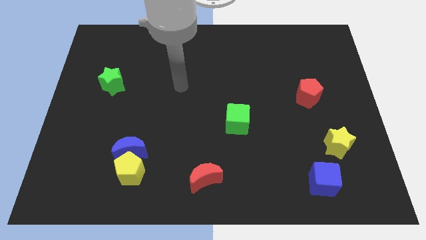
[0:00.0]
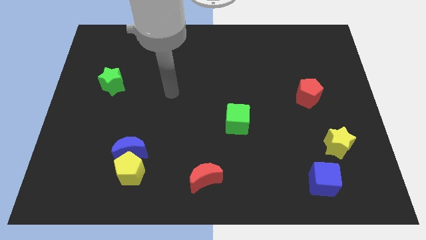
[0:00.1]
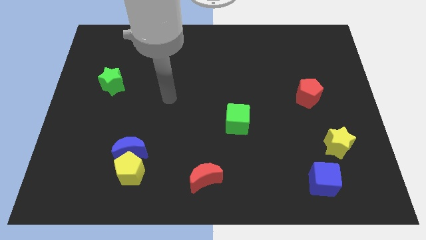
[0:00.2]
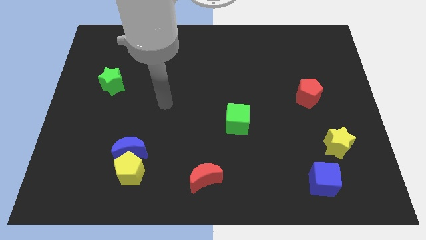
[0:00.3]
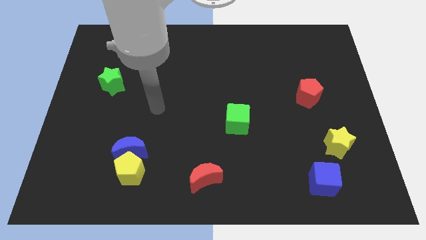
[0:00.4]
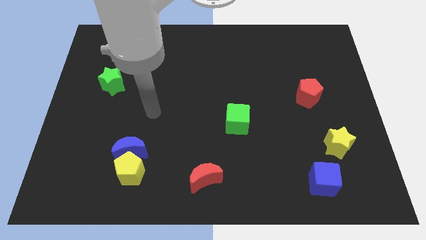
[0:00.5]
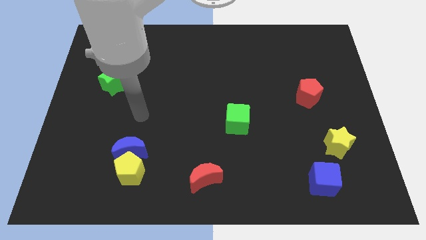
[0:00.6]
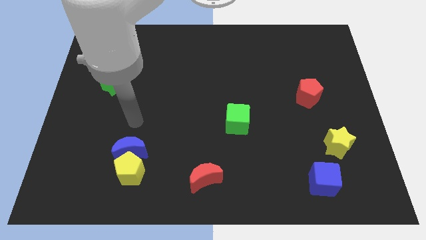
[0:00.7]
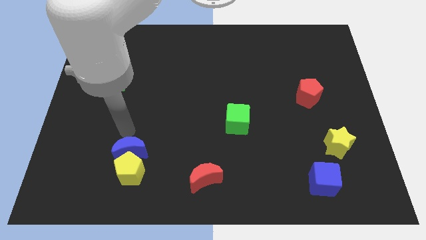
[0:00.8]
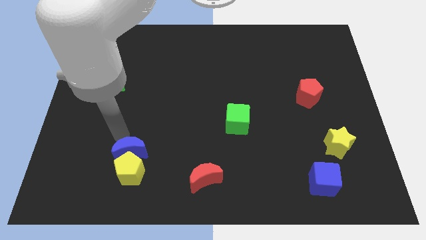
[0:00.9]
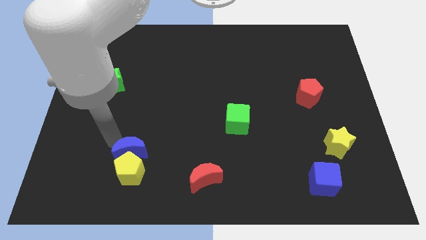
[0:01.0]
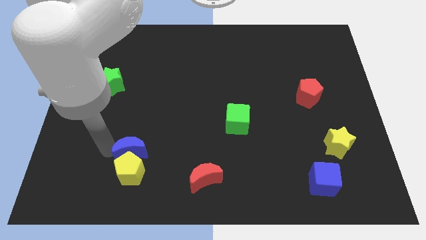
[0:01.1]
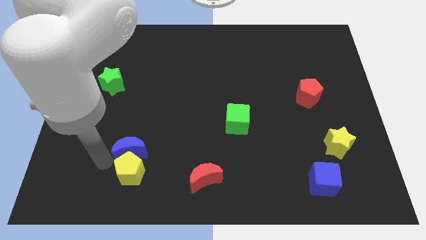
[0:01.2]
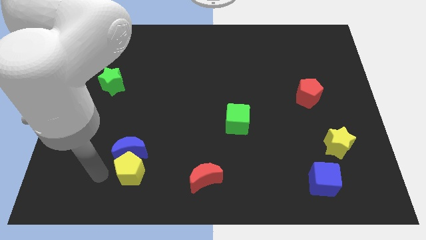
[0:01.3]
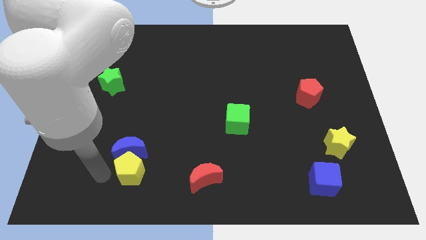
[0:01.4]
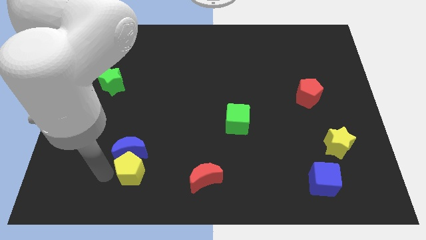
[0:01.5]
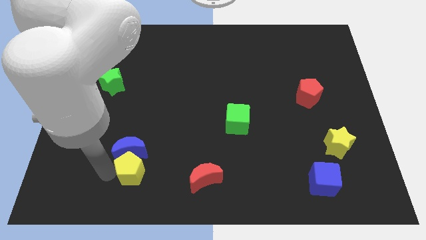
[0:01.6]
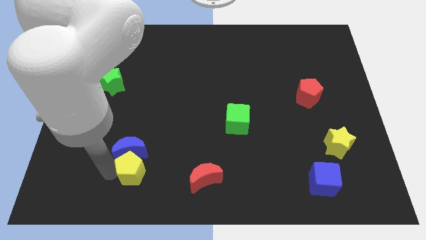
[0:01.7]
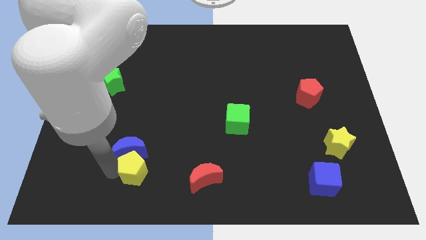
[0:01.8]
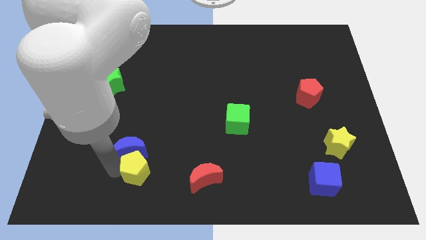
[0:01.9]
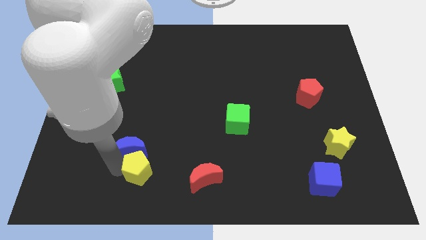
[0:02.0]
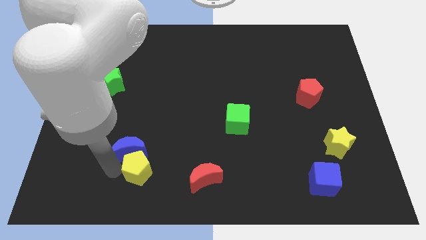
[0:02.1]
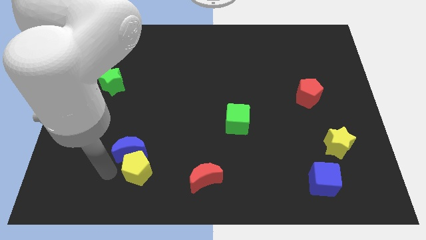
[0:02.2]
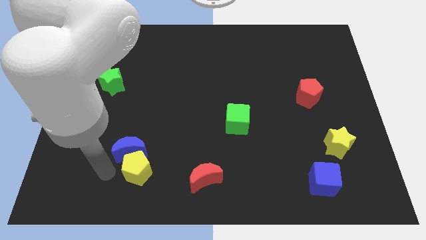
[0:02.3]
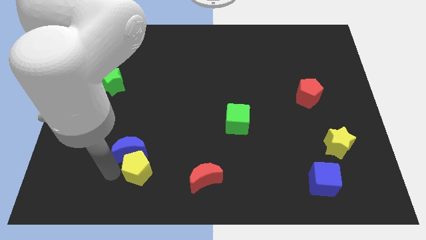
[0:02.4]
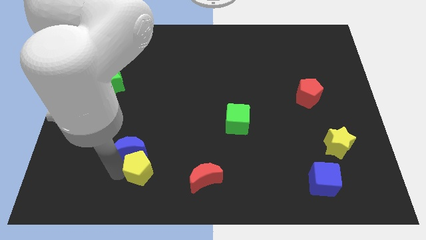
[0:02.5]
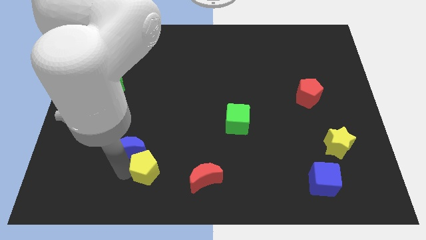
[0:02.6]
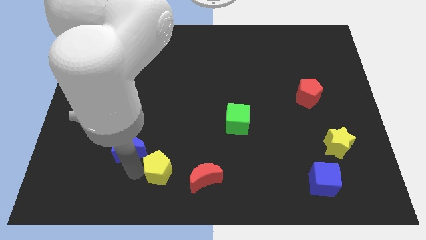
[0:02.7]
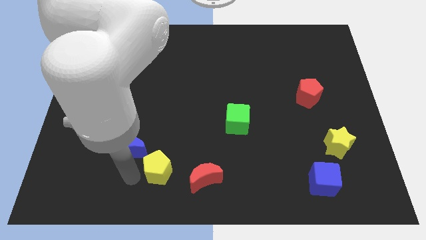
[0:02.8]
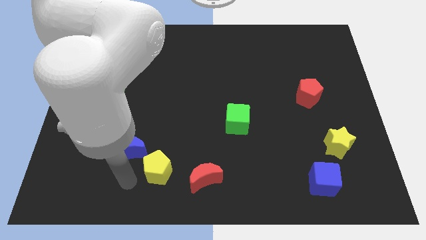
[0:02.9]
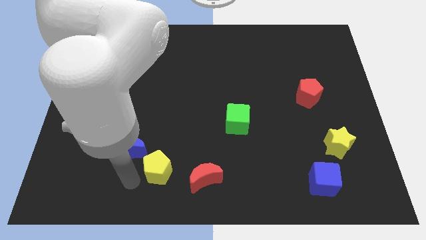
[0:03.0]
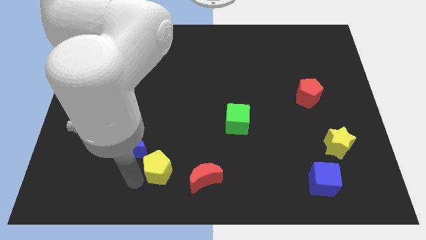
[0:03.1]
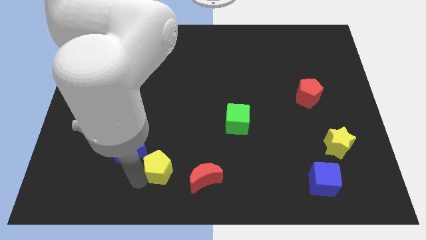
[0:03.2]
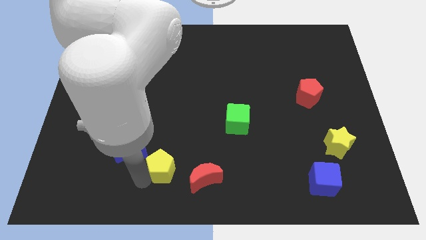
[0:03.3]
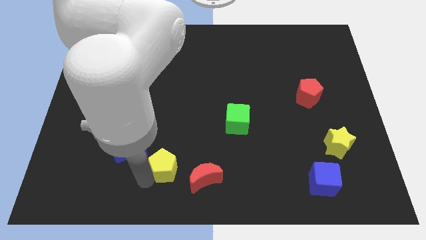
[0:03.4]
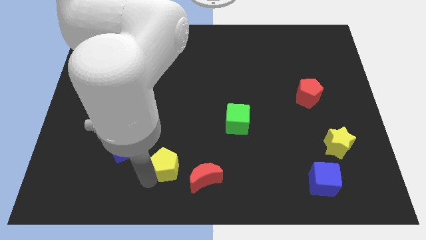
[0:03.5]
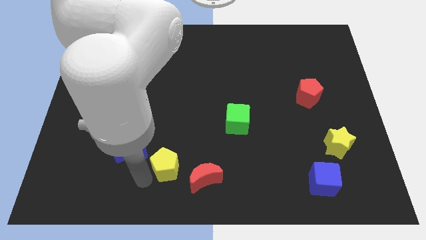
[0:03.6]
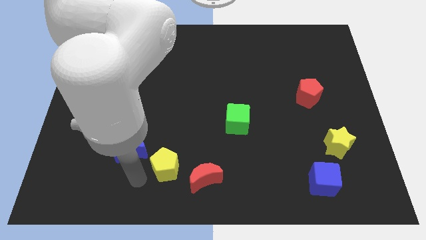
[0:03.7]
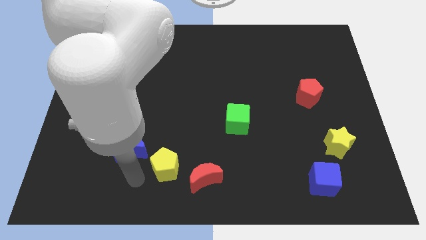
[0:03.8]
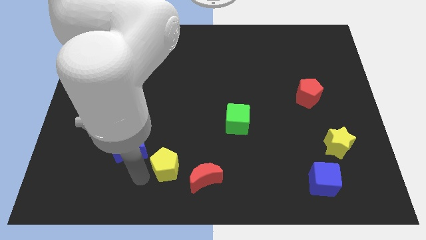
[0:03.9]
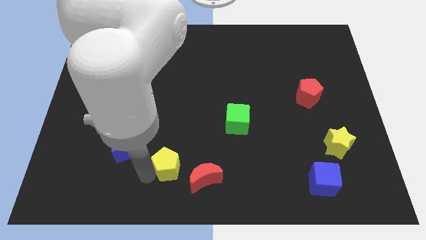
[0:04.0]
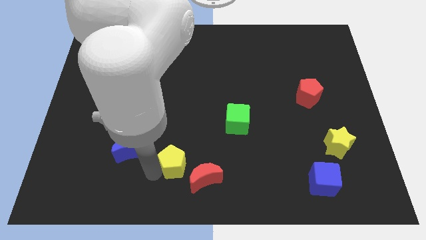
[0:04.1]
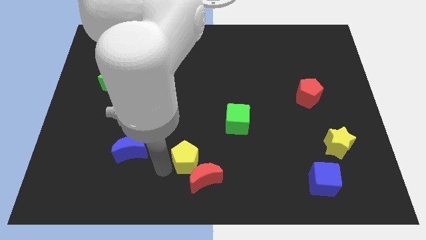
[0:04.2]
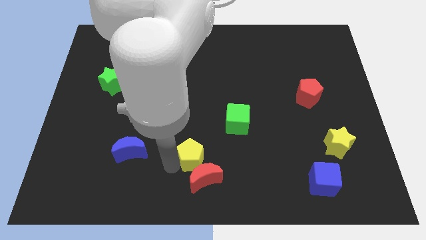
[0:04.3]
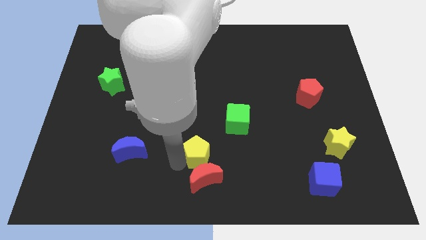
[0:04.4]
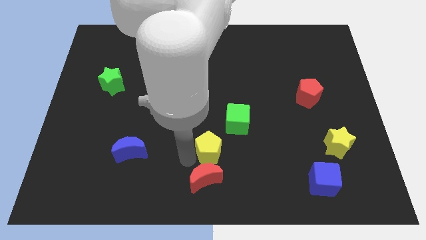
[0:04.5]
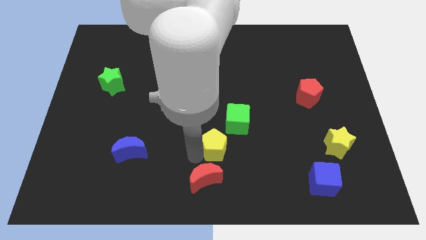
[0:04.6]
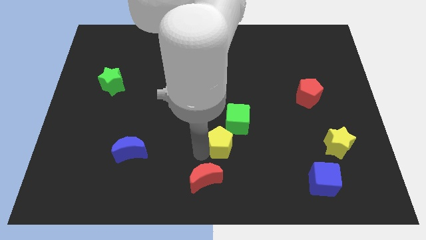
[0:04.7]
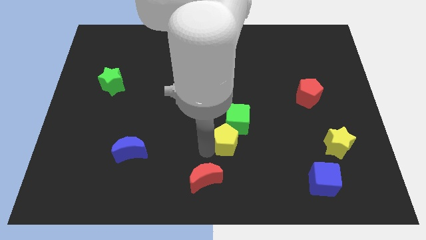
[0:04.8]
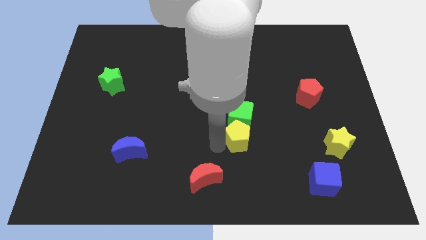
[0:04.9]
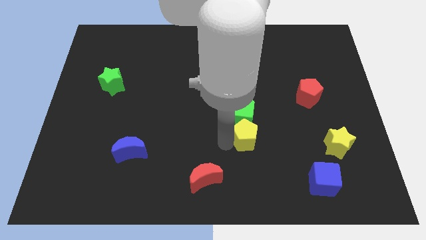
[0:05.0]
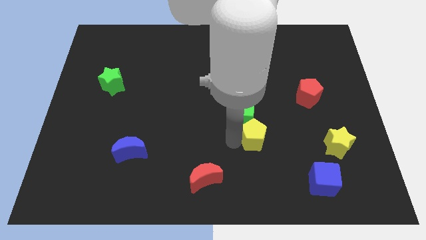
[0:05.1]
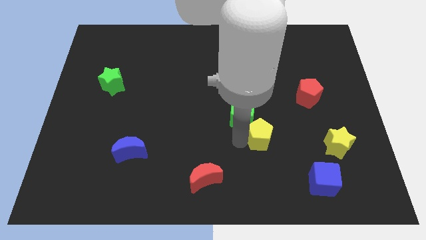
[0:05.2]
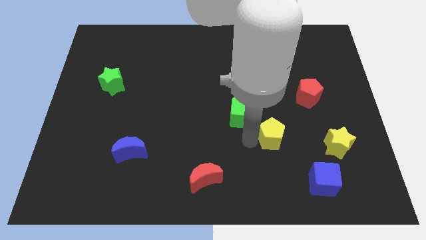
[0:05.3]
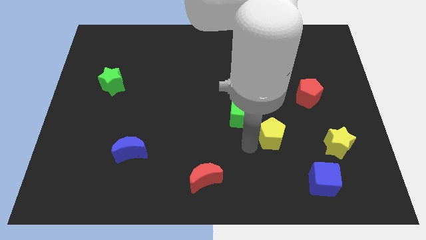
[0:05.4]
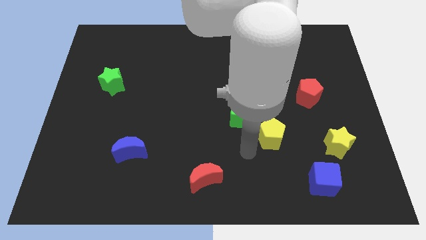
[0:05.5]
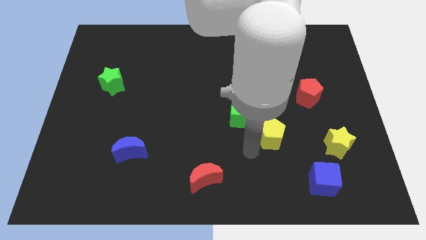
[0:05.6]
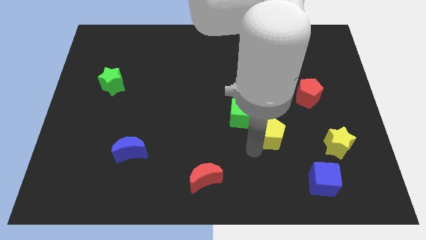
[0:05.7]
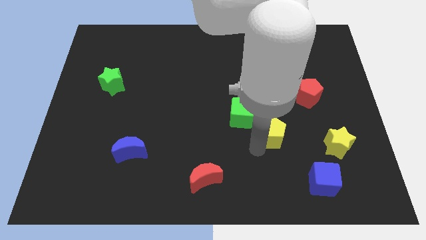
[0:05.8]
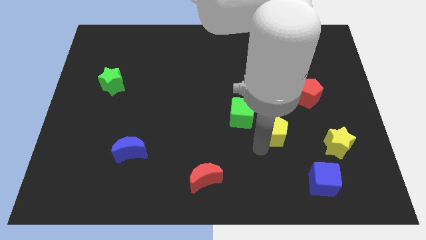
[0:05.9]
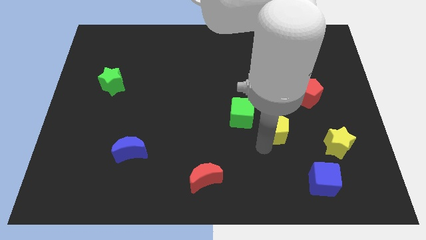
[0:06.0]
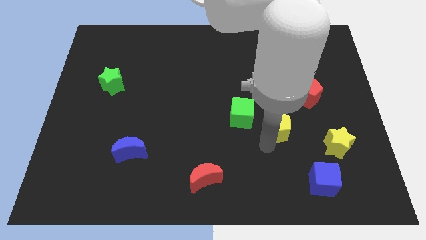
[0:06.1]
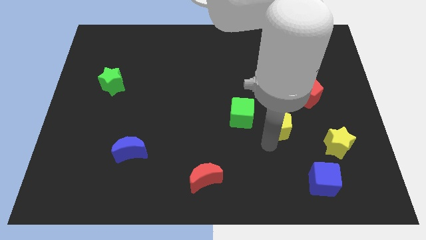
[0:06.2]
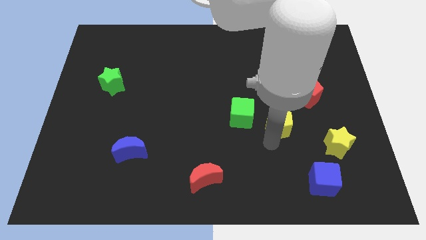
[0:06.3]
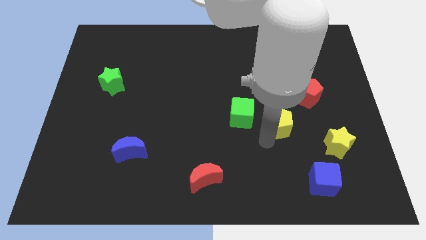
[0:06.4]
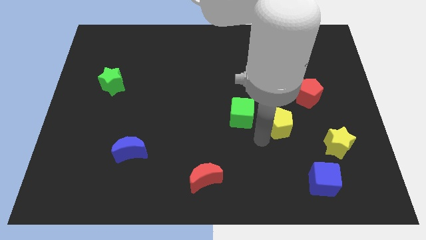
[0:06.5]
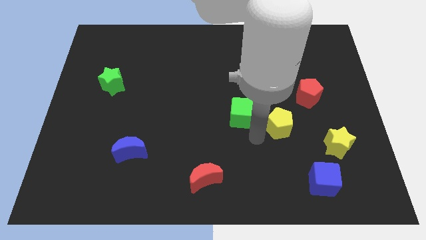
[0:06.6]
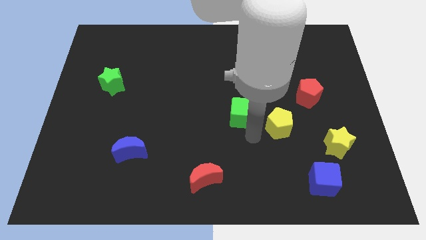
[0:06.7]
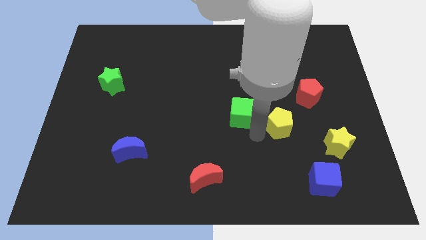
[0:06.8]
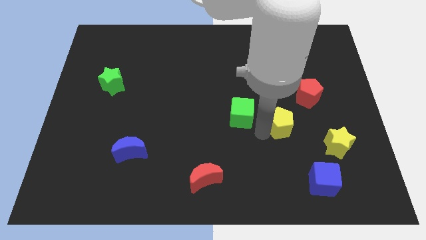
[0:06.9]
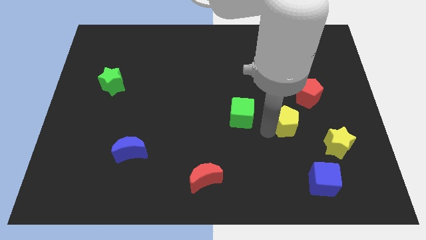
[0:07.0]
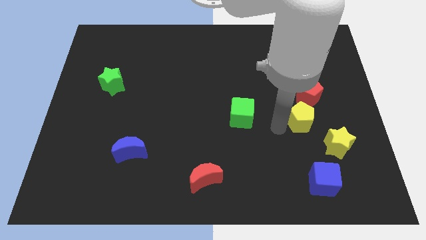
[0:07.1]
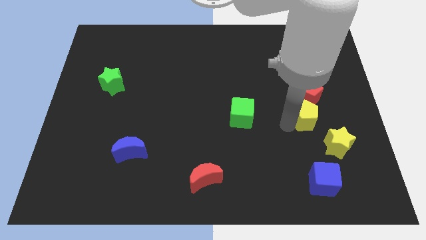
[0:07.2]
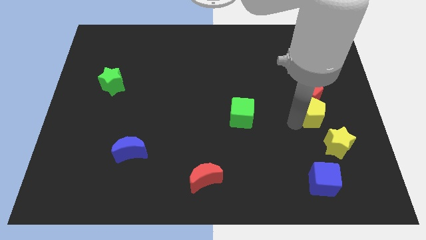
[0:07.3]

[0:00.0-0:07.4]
put the yellow pentagon to the top of the yellow star
